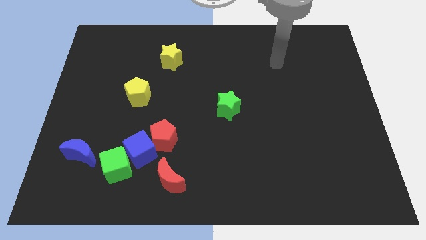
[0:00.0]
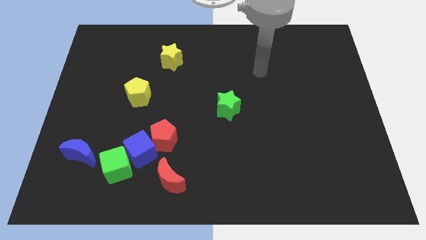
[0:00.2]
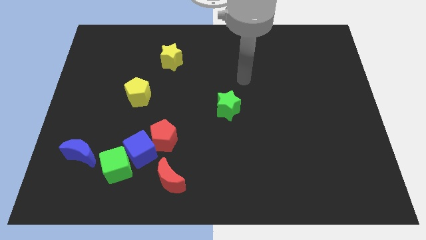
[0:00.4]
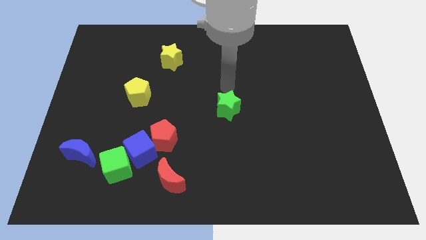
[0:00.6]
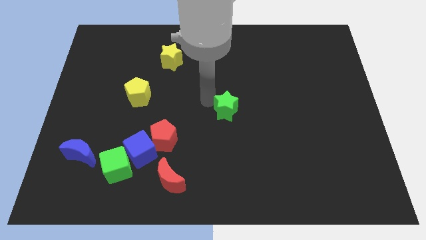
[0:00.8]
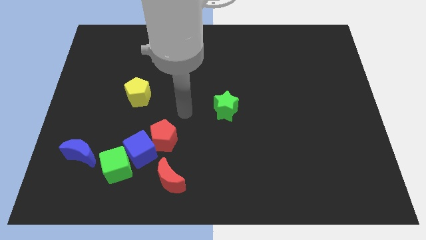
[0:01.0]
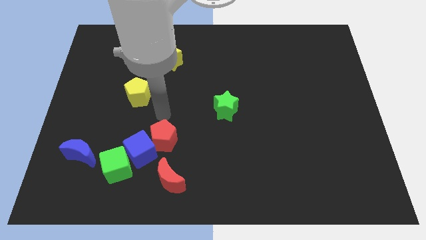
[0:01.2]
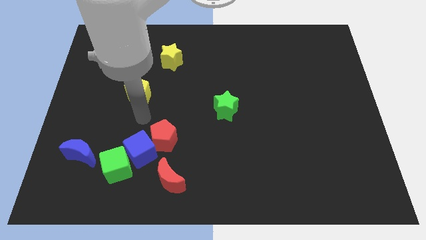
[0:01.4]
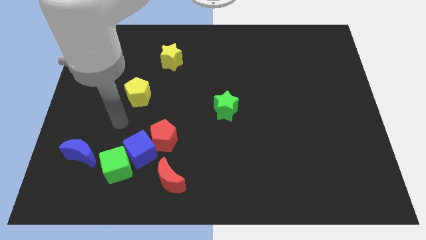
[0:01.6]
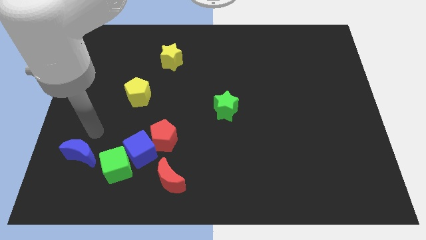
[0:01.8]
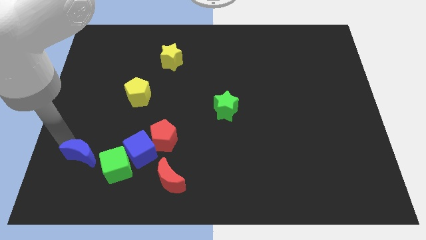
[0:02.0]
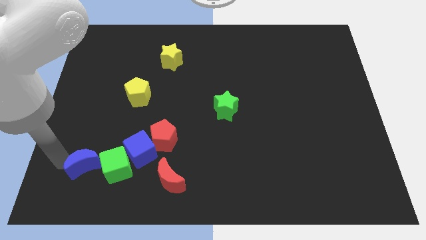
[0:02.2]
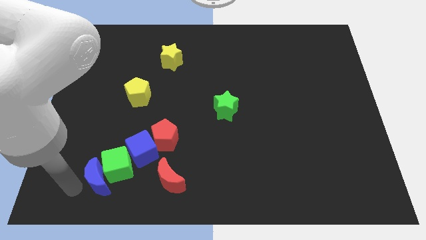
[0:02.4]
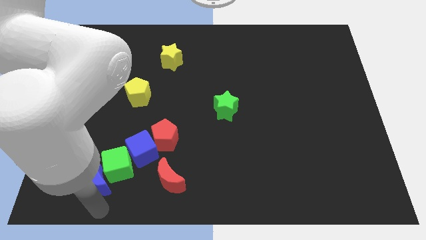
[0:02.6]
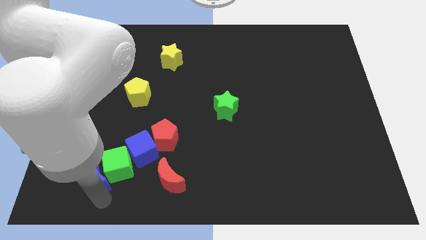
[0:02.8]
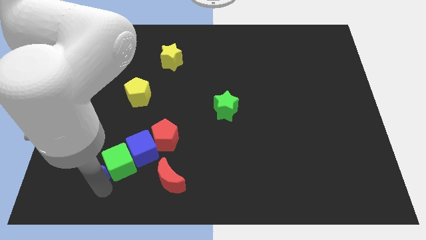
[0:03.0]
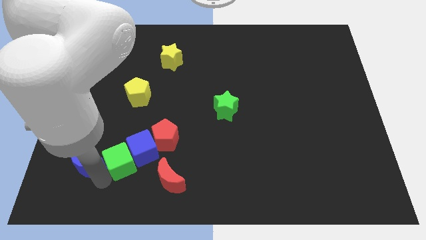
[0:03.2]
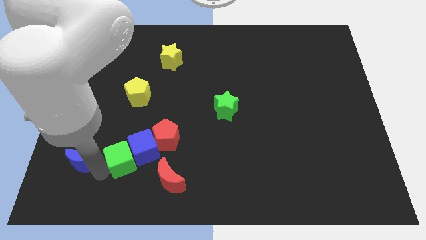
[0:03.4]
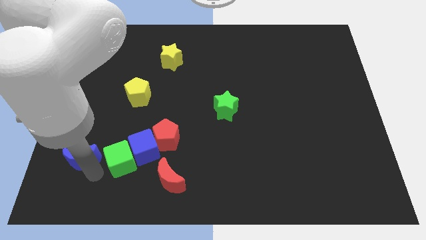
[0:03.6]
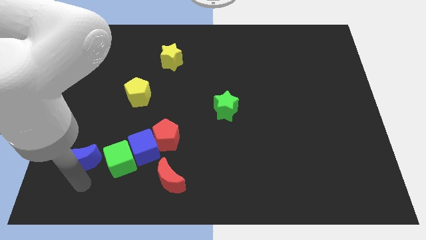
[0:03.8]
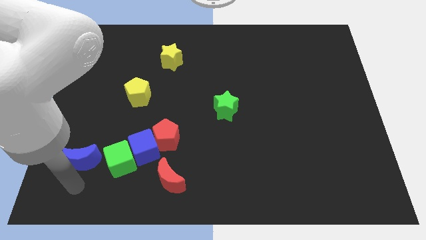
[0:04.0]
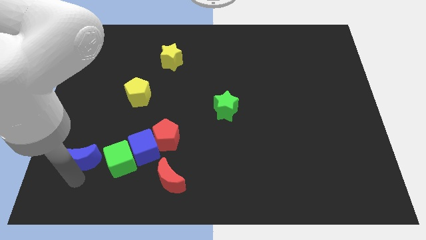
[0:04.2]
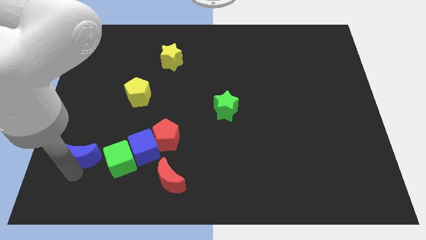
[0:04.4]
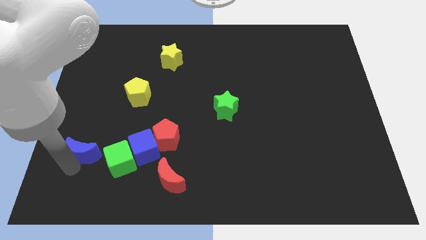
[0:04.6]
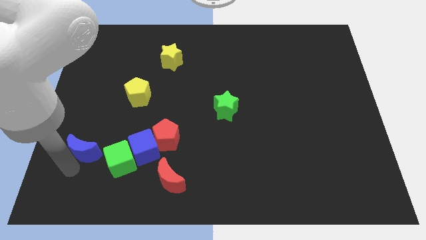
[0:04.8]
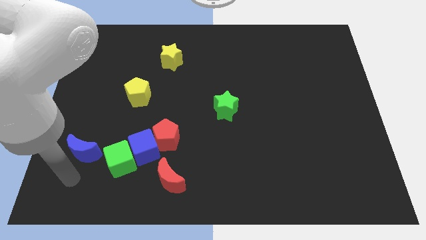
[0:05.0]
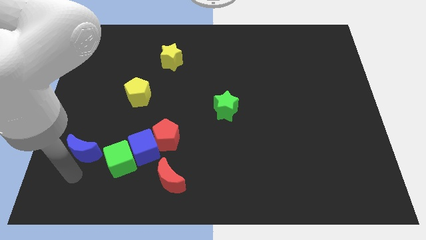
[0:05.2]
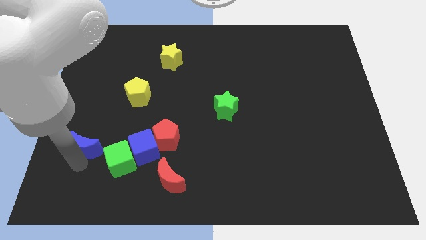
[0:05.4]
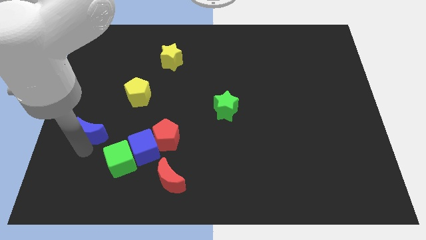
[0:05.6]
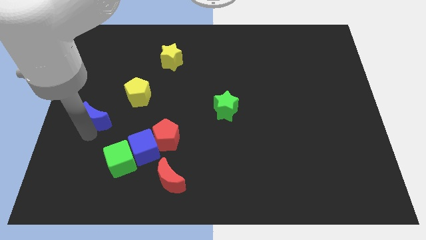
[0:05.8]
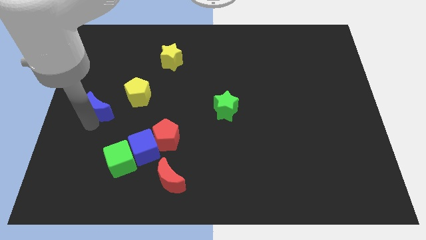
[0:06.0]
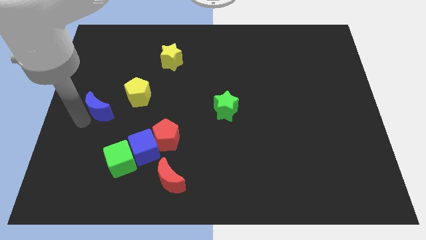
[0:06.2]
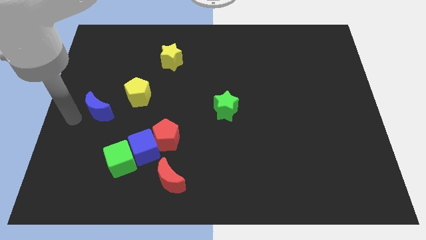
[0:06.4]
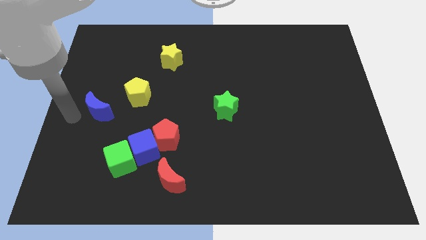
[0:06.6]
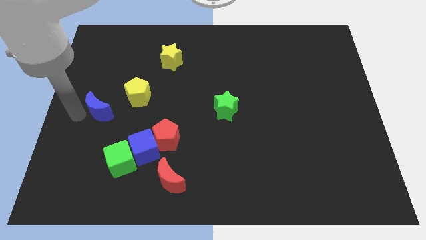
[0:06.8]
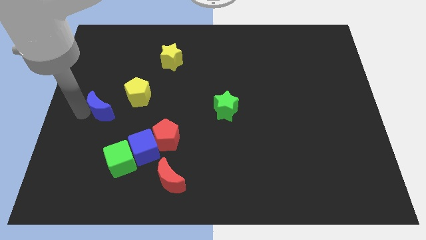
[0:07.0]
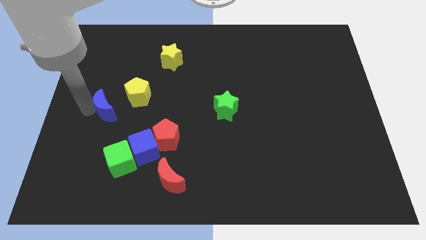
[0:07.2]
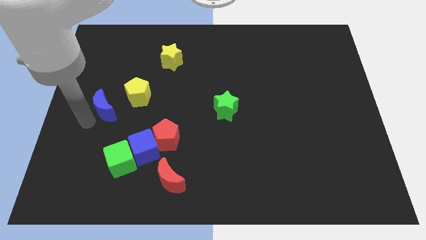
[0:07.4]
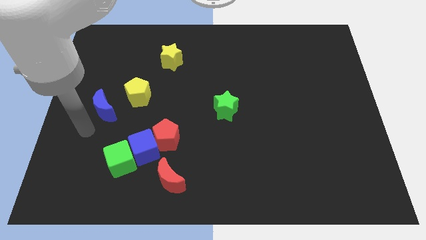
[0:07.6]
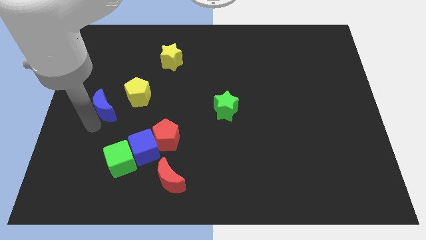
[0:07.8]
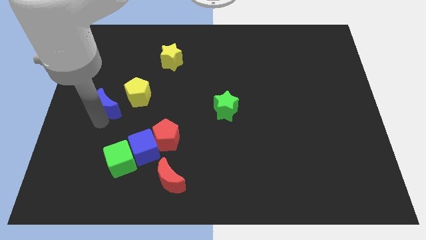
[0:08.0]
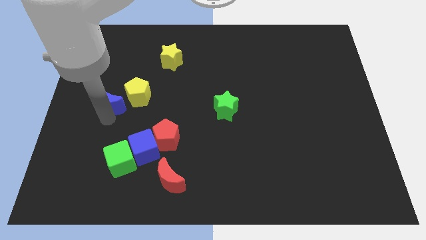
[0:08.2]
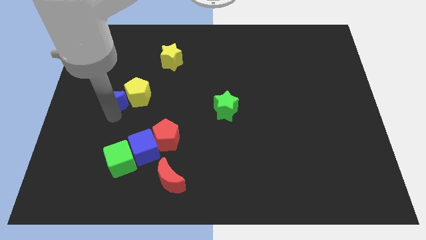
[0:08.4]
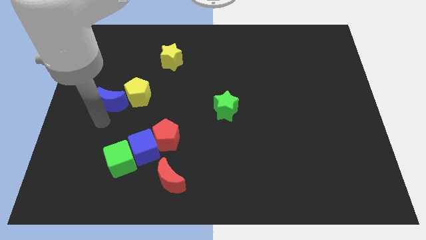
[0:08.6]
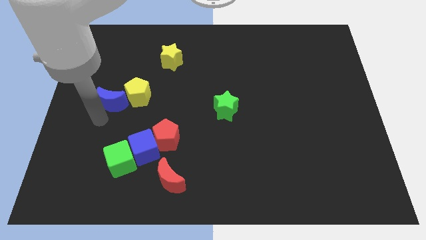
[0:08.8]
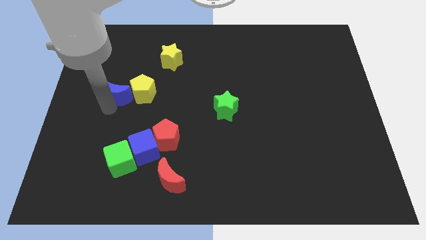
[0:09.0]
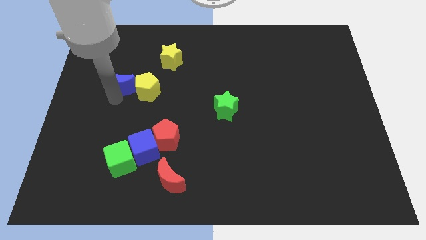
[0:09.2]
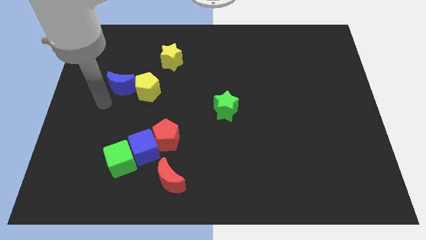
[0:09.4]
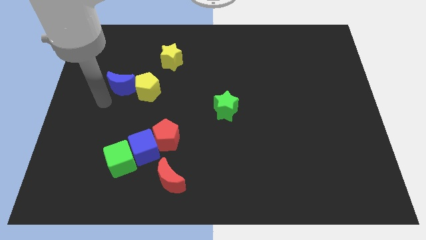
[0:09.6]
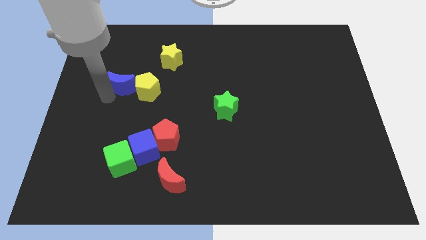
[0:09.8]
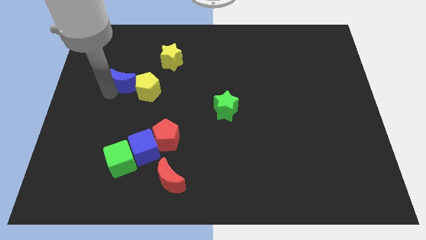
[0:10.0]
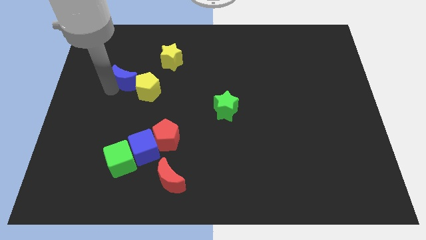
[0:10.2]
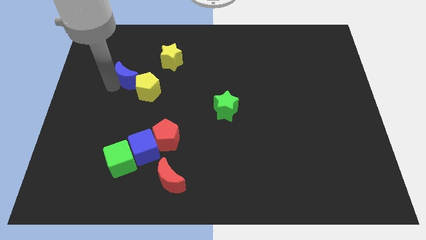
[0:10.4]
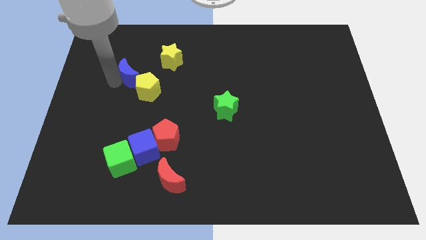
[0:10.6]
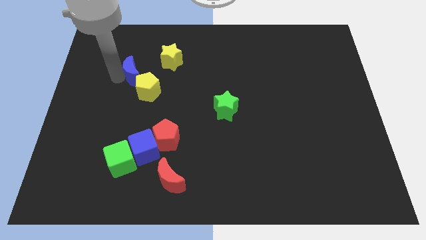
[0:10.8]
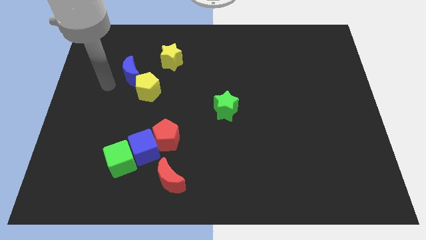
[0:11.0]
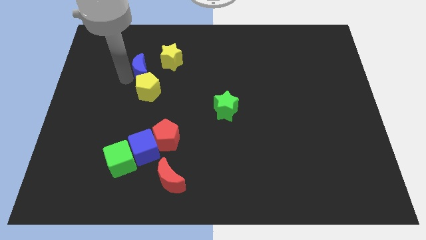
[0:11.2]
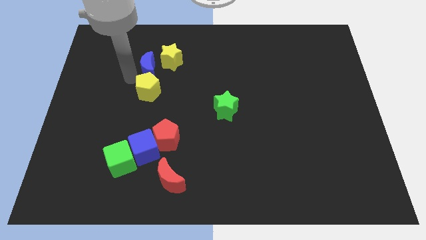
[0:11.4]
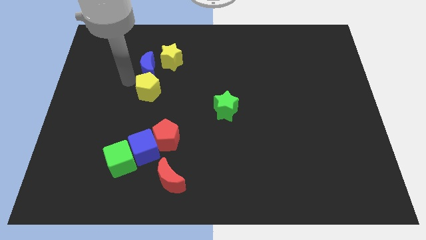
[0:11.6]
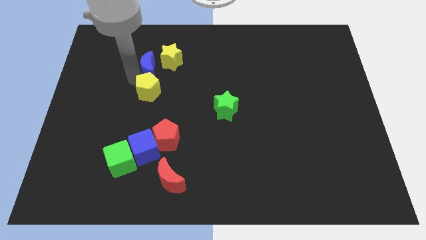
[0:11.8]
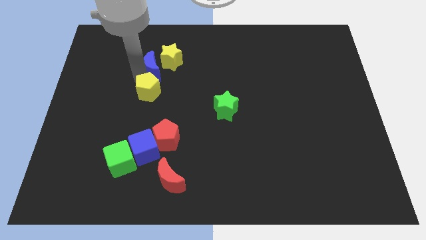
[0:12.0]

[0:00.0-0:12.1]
move the blue moon close to the yellow star

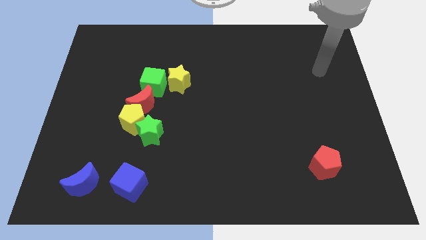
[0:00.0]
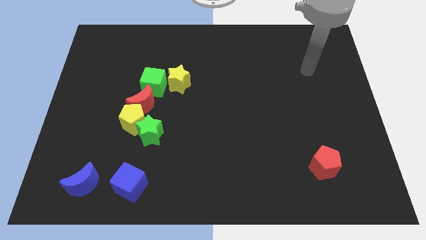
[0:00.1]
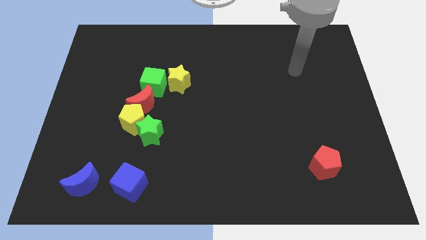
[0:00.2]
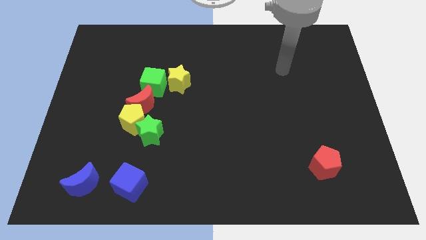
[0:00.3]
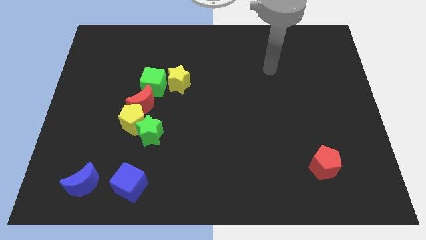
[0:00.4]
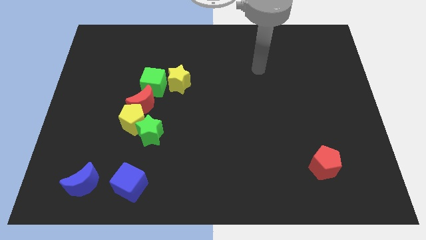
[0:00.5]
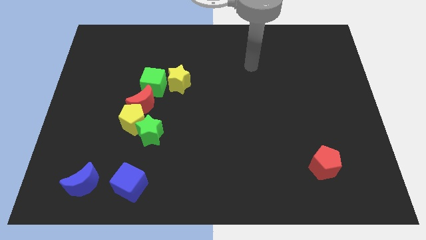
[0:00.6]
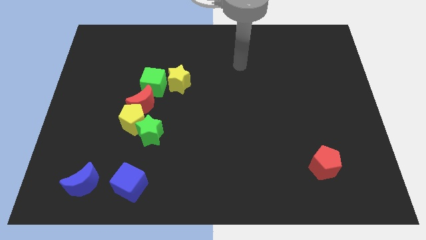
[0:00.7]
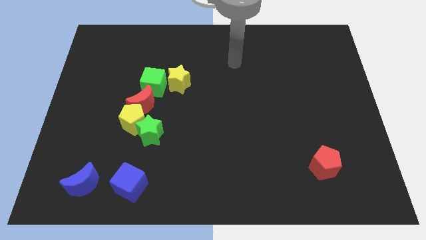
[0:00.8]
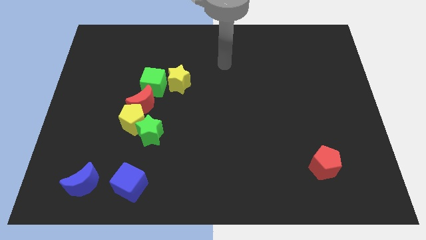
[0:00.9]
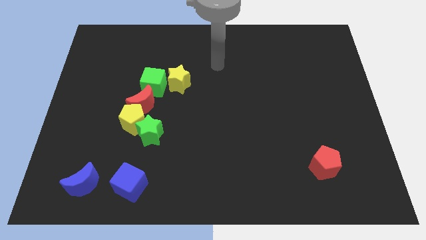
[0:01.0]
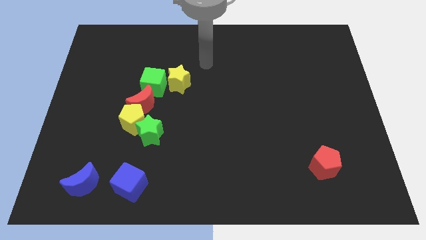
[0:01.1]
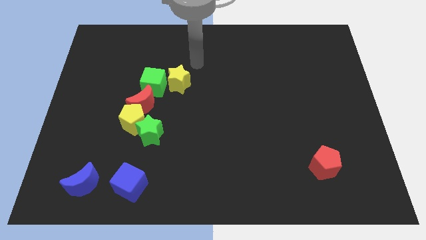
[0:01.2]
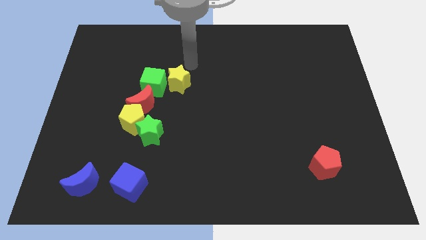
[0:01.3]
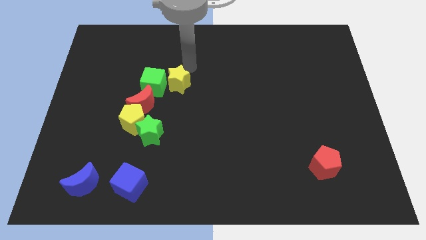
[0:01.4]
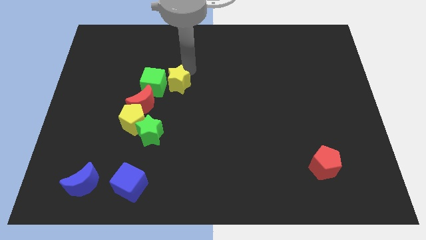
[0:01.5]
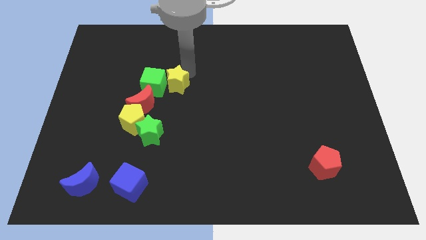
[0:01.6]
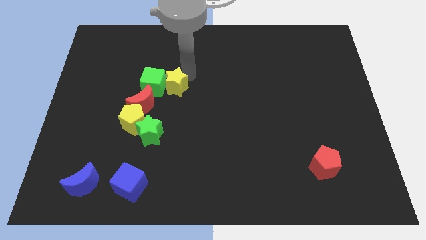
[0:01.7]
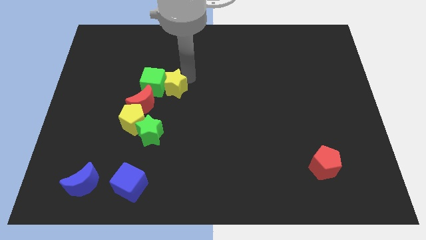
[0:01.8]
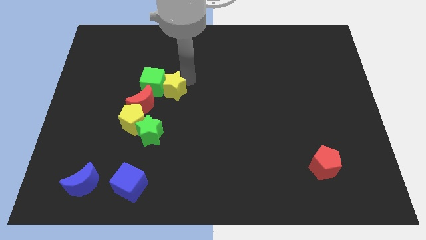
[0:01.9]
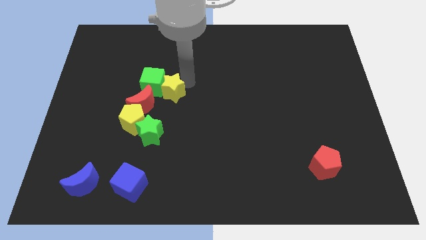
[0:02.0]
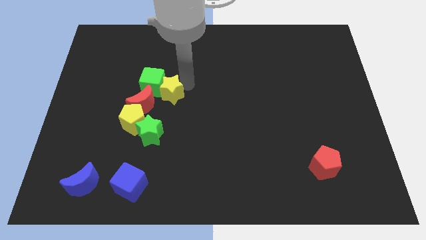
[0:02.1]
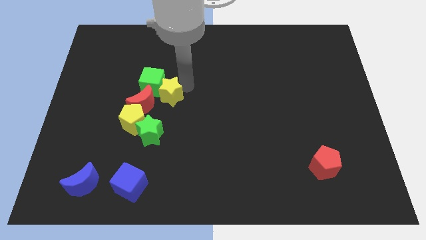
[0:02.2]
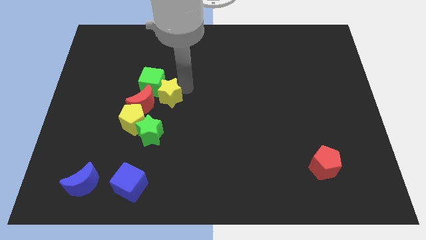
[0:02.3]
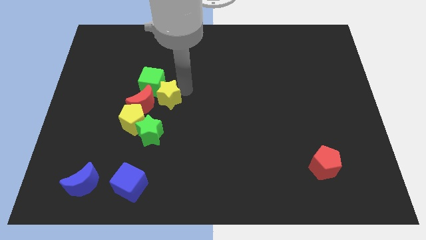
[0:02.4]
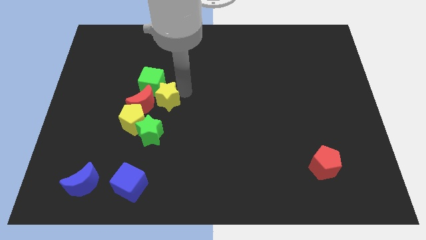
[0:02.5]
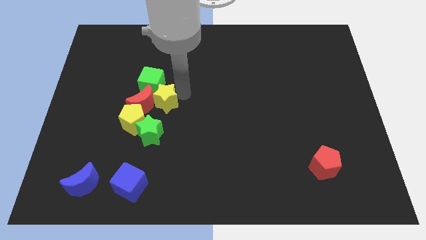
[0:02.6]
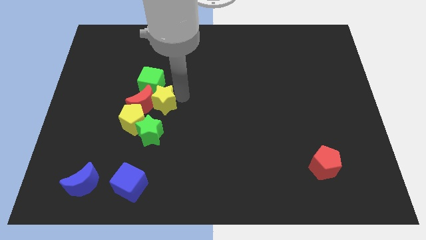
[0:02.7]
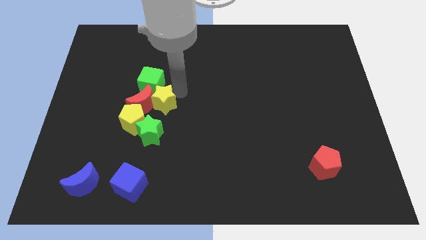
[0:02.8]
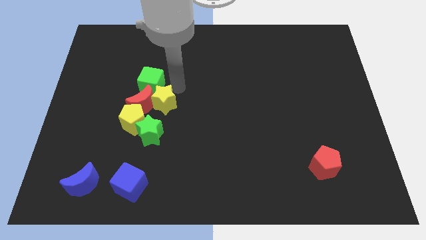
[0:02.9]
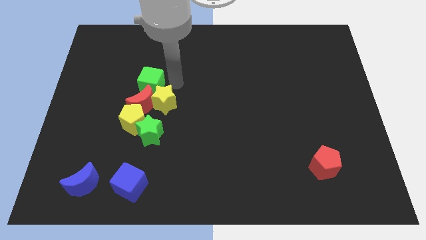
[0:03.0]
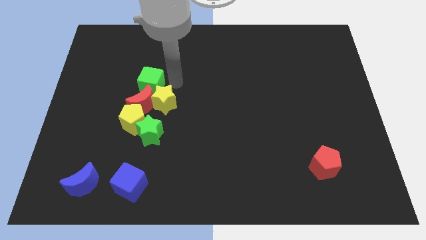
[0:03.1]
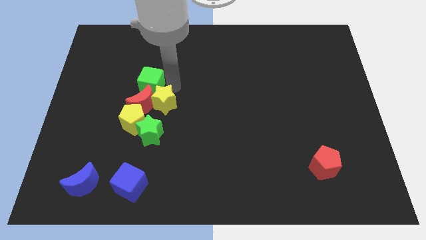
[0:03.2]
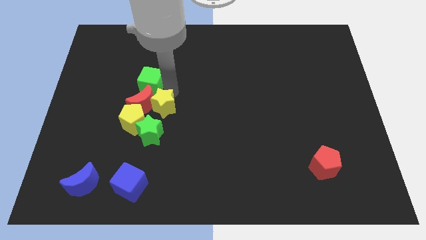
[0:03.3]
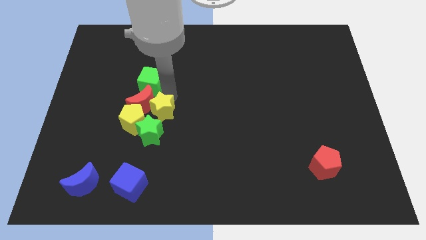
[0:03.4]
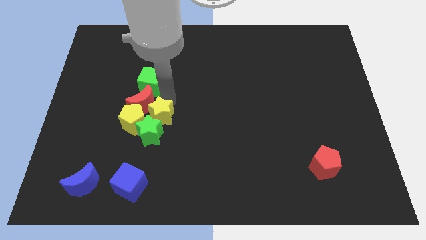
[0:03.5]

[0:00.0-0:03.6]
put the yellow star to the green star
